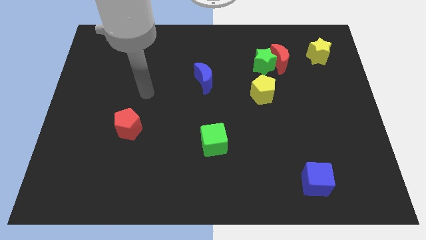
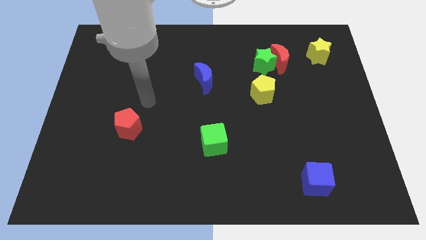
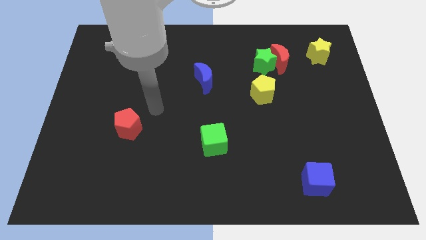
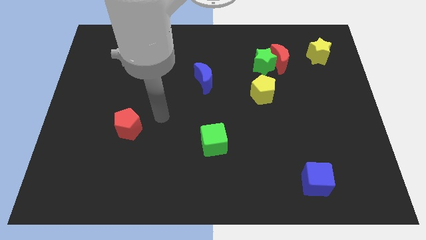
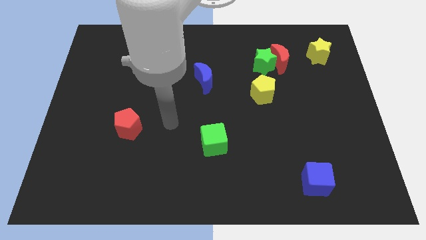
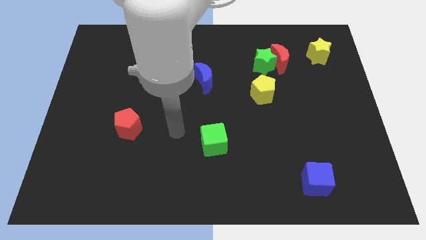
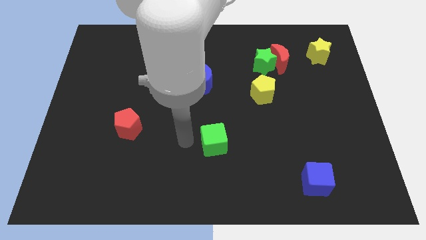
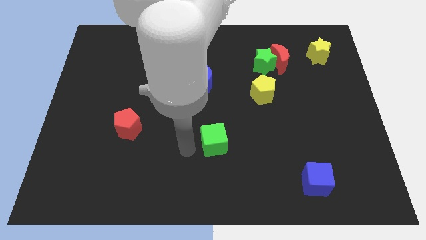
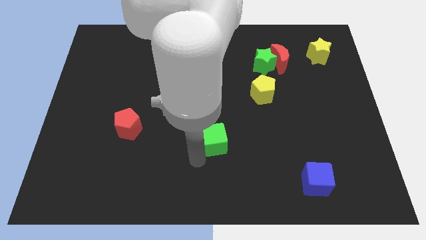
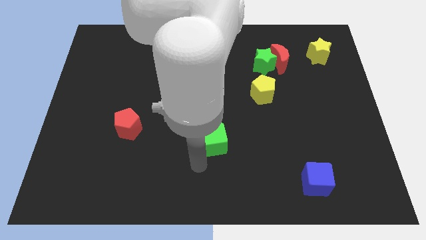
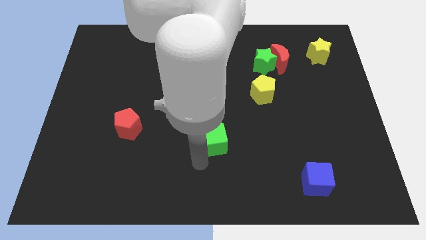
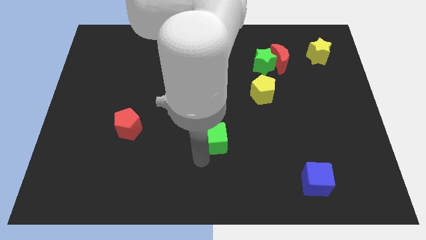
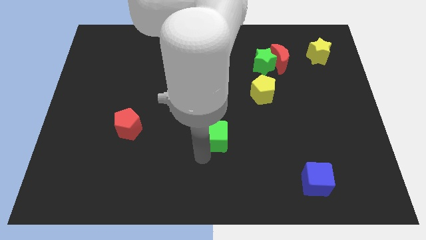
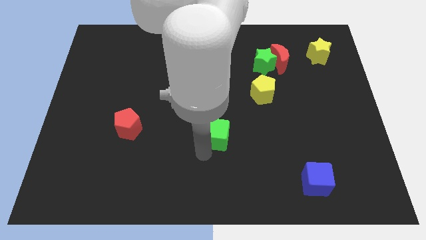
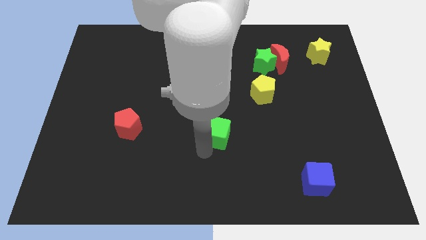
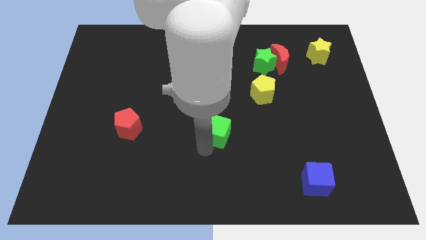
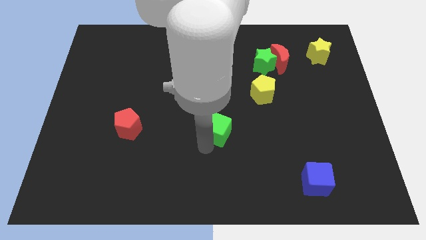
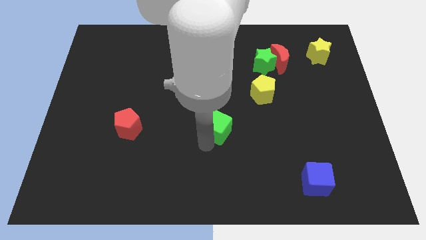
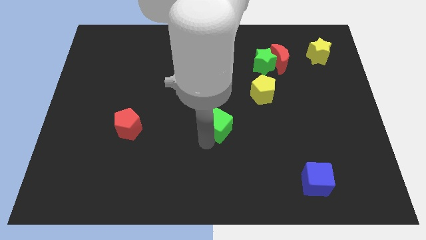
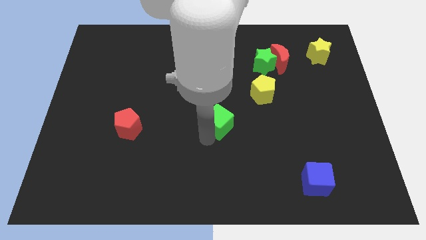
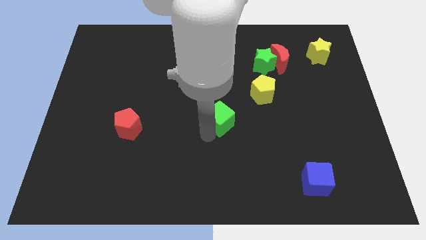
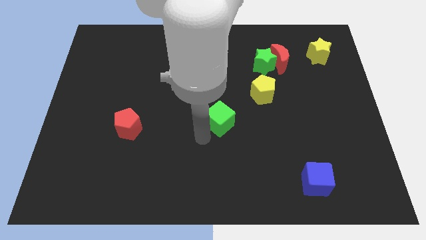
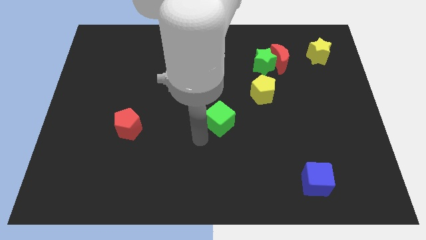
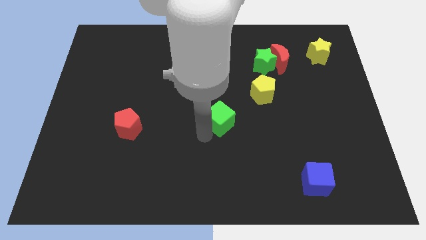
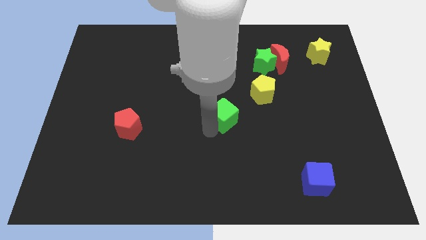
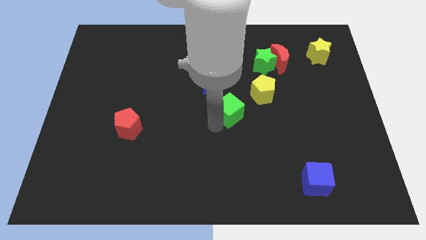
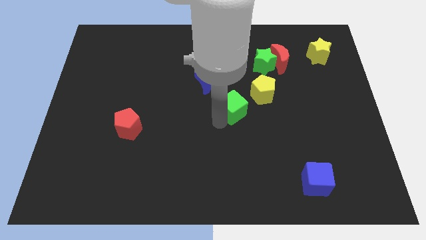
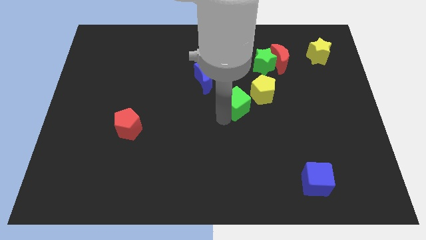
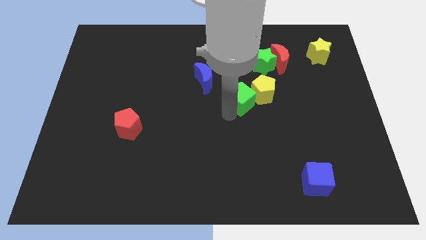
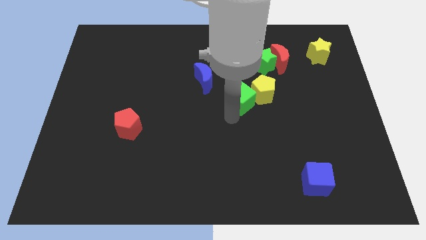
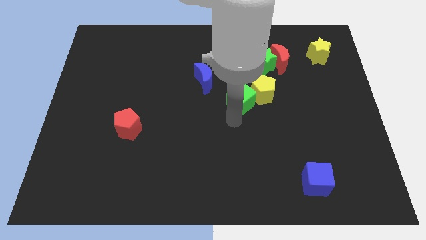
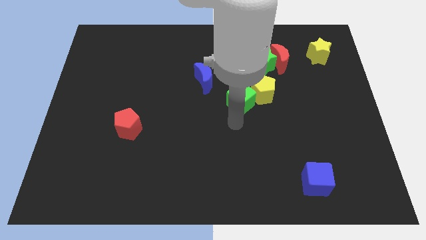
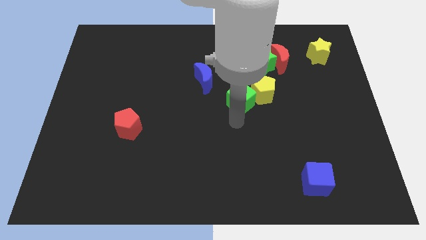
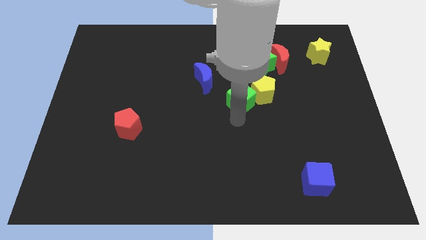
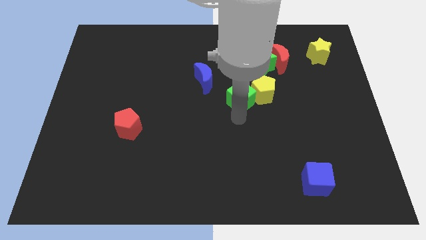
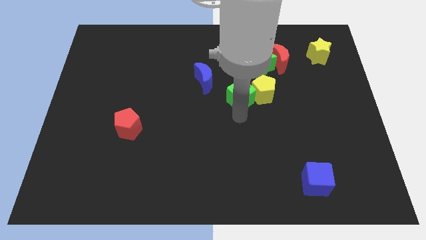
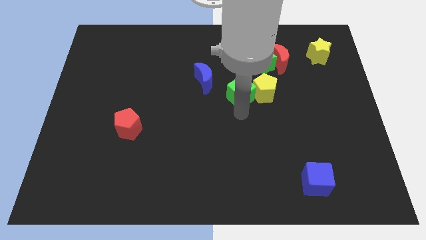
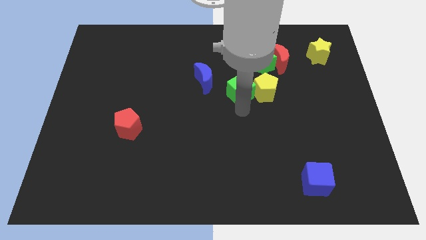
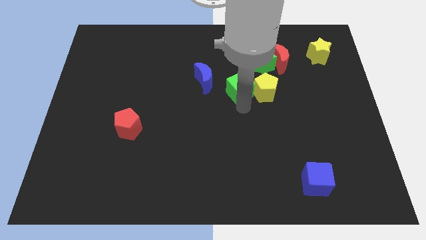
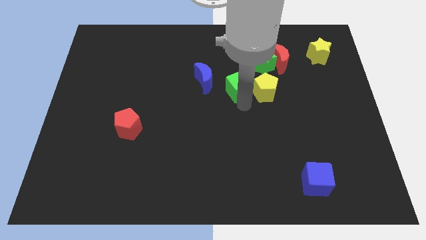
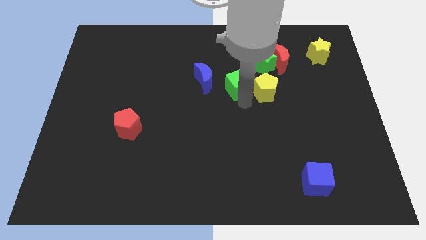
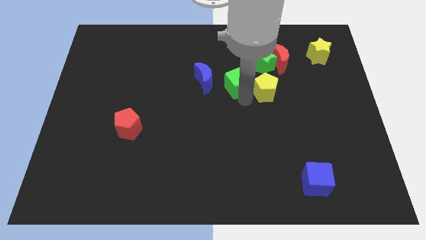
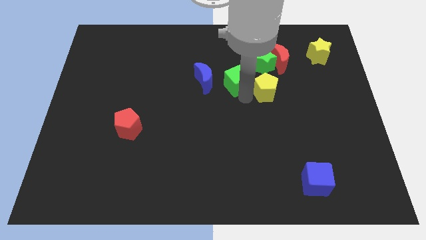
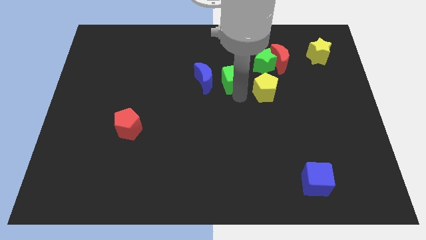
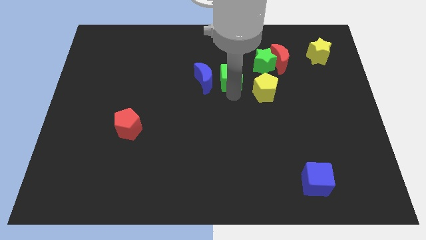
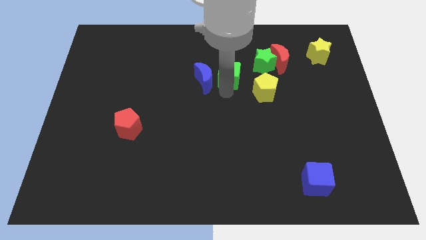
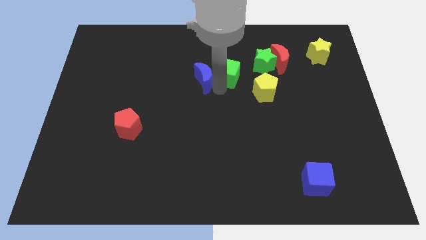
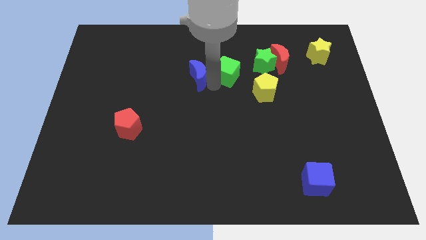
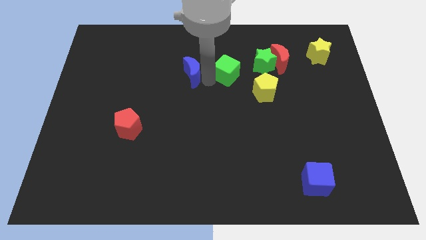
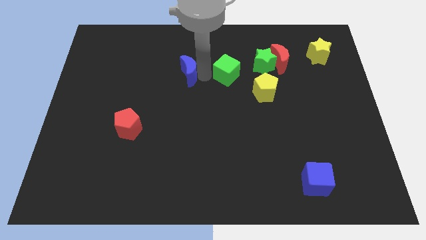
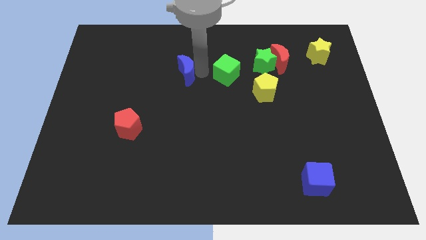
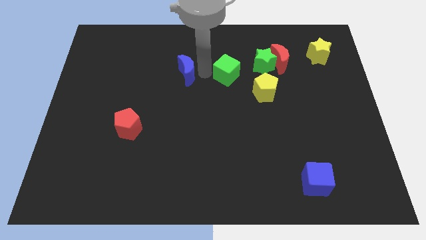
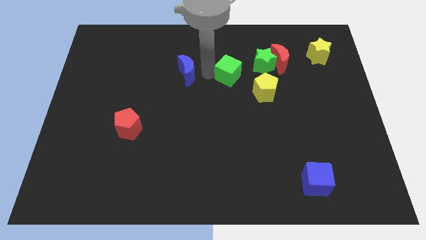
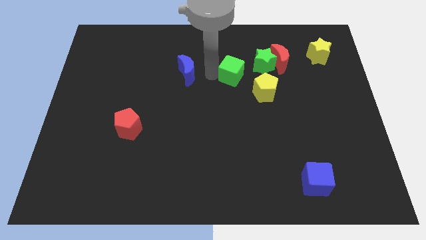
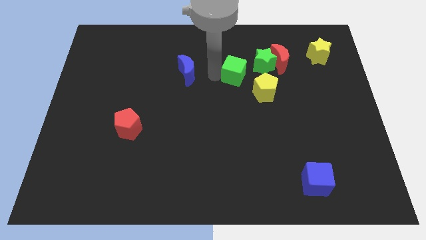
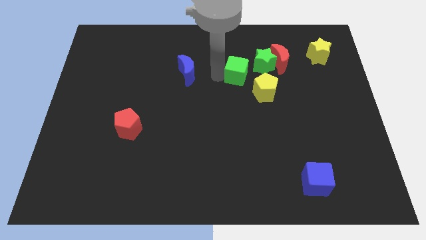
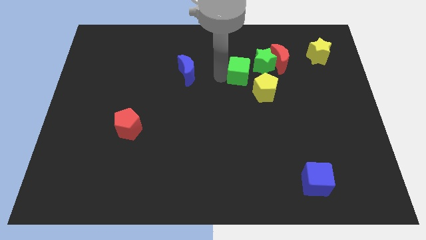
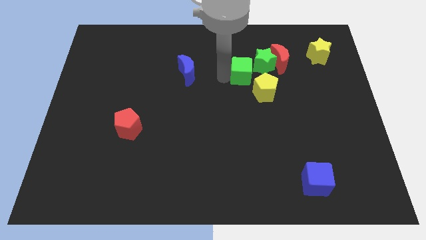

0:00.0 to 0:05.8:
move the green cube to the bottom left of the red moon

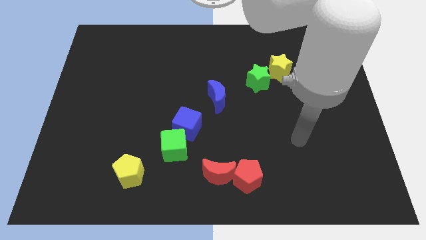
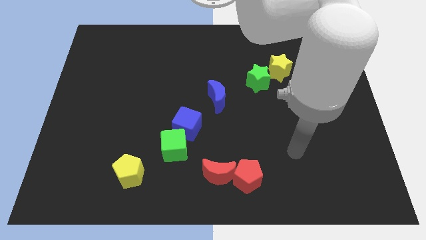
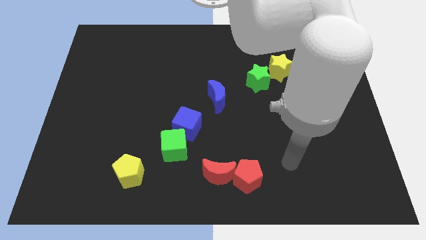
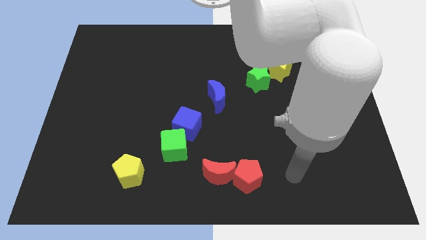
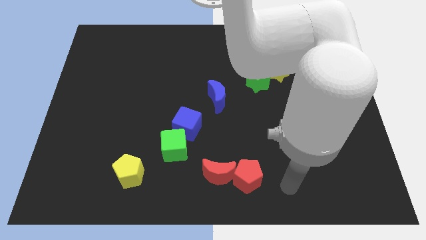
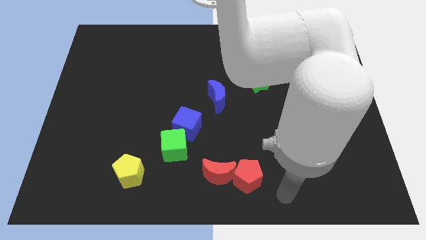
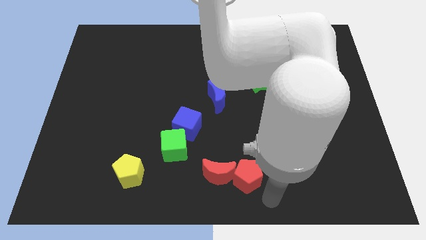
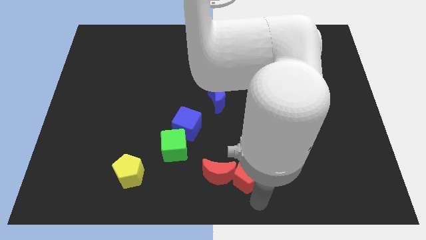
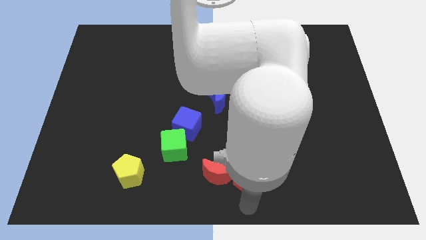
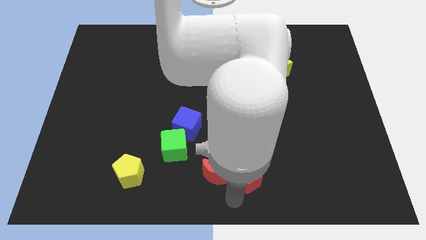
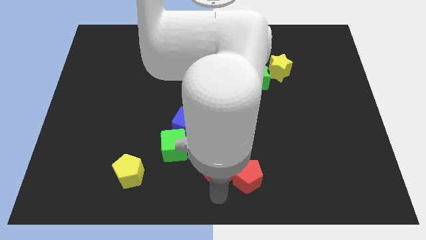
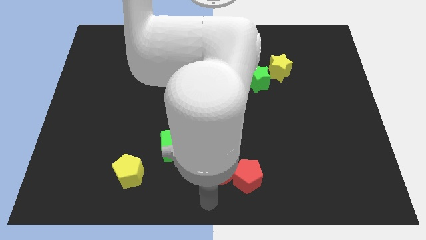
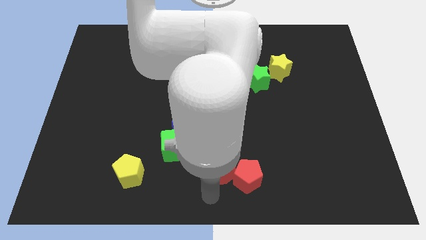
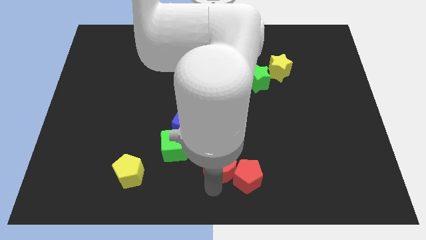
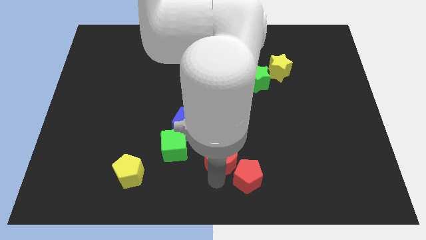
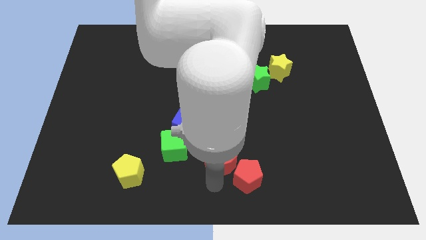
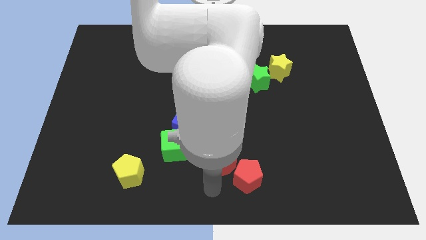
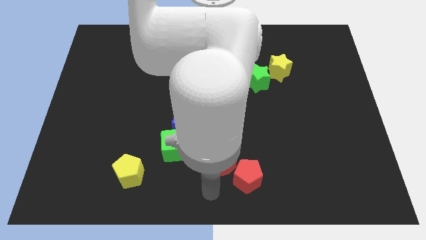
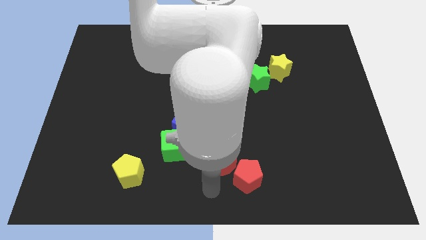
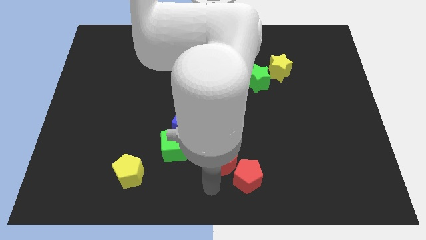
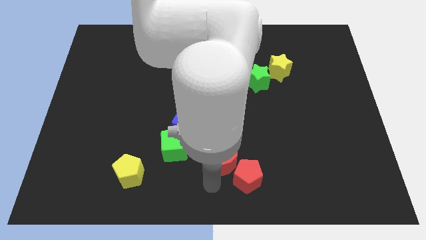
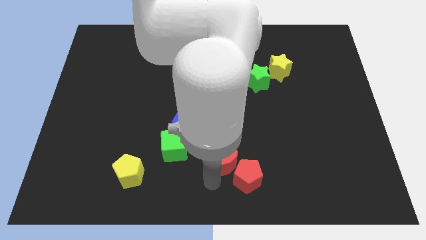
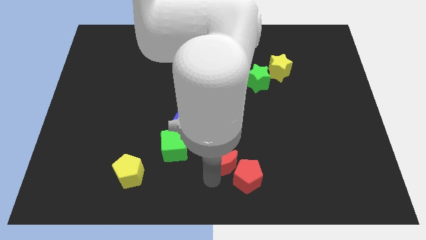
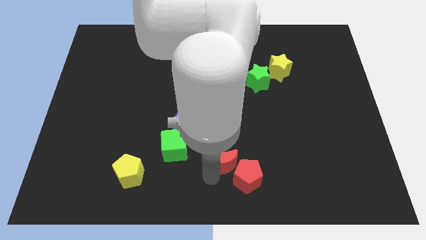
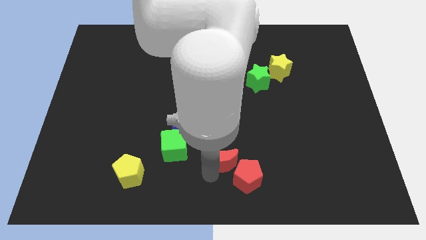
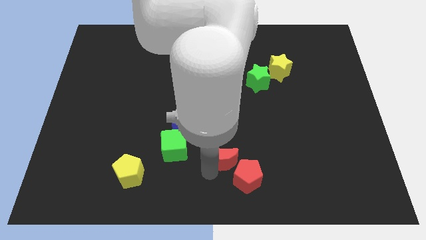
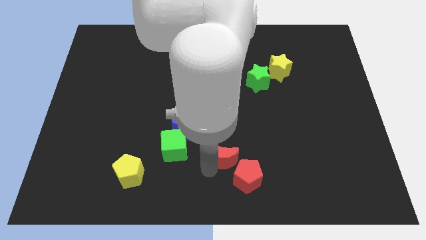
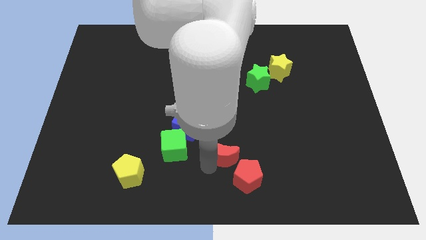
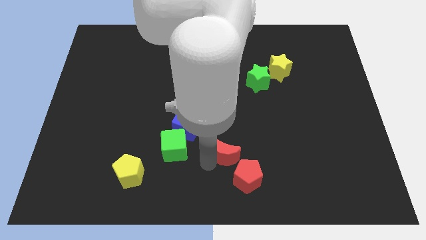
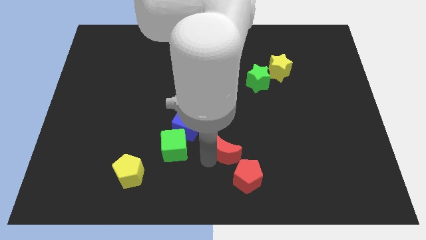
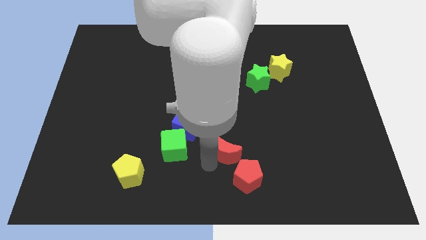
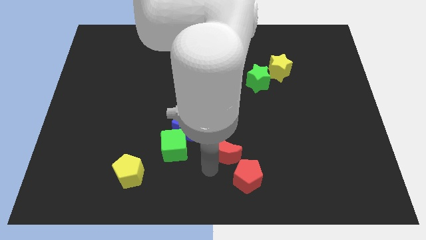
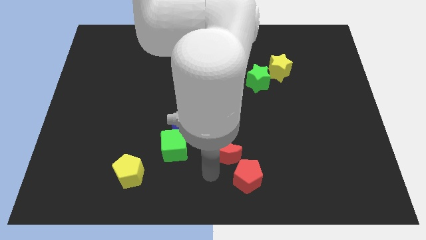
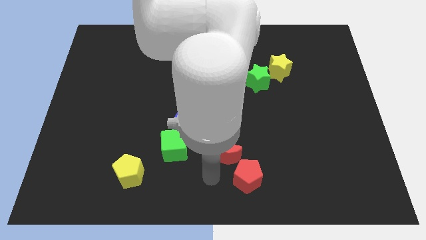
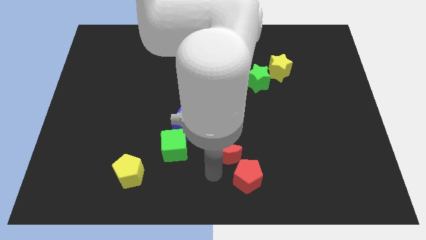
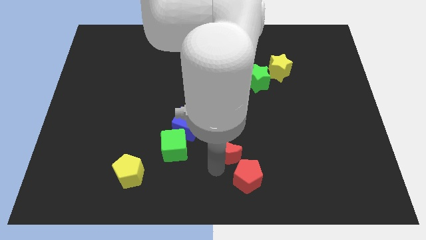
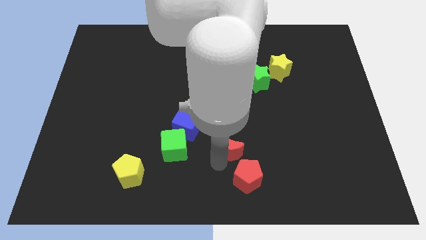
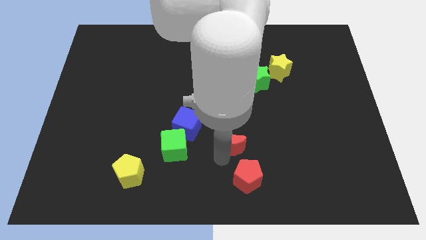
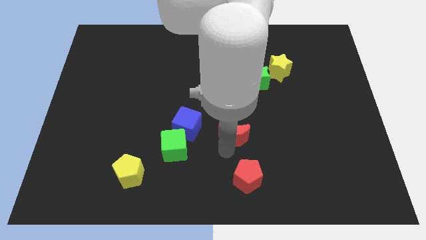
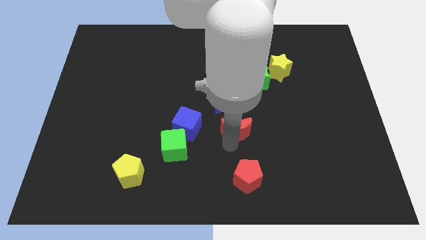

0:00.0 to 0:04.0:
push the red moon to the bottom right of the blue moon
